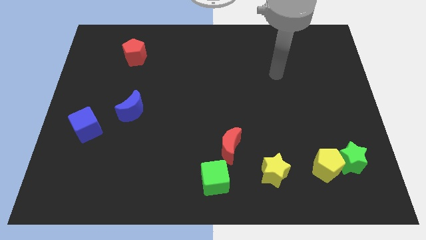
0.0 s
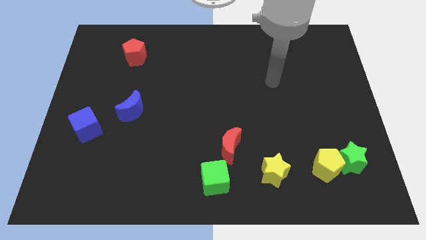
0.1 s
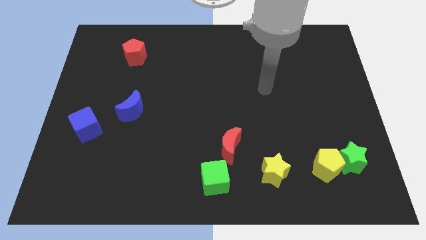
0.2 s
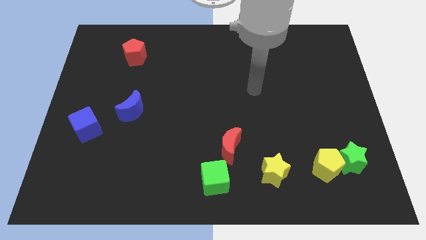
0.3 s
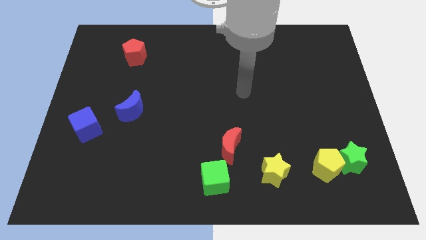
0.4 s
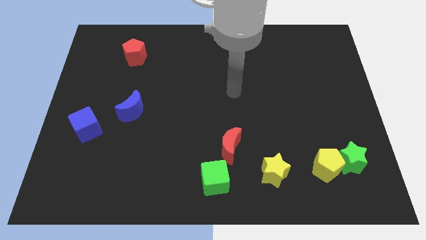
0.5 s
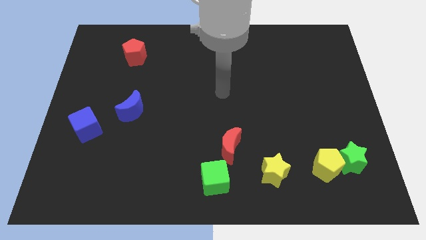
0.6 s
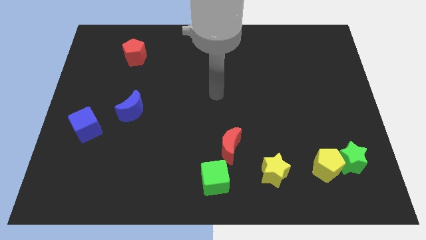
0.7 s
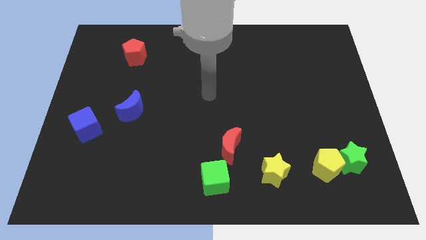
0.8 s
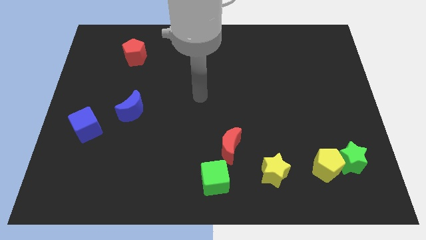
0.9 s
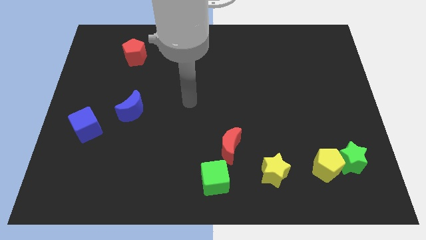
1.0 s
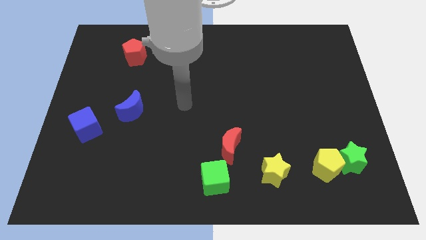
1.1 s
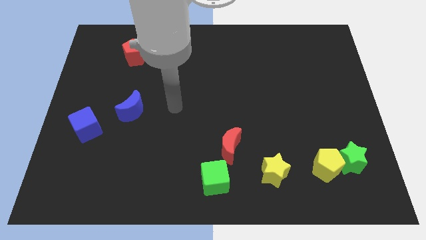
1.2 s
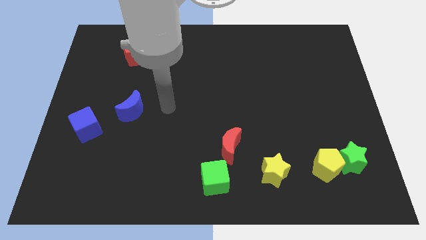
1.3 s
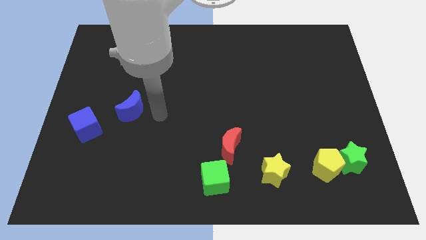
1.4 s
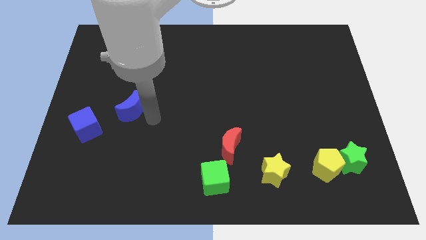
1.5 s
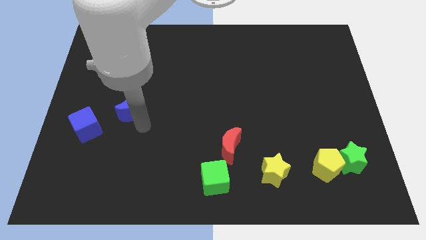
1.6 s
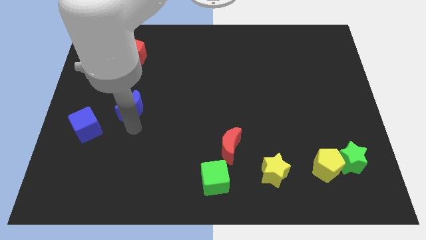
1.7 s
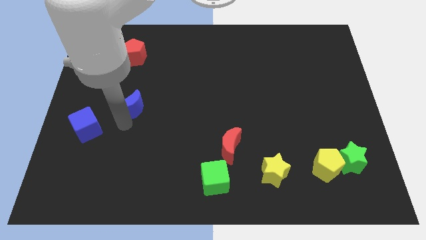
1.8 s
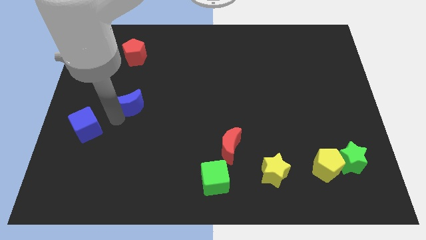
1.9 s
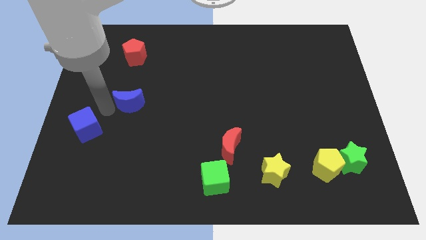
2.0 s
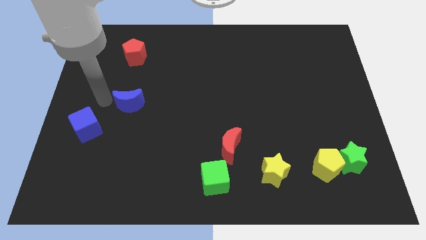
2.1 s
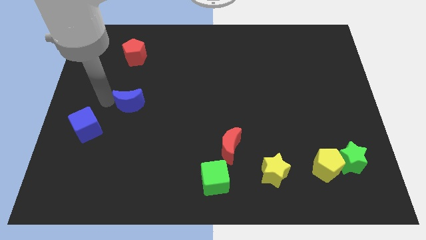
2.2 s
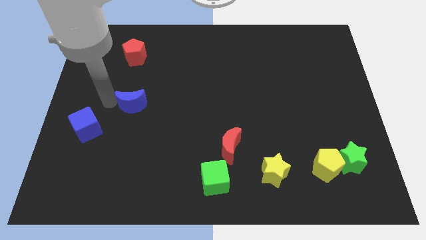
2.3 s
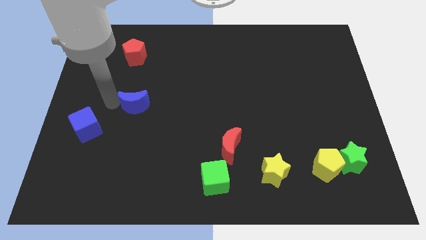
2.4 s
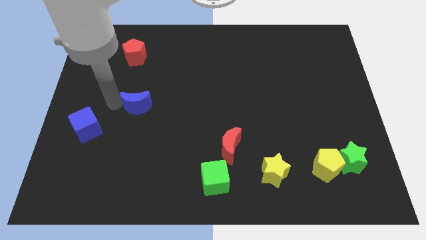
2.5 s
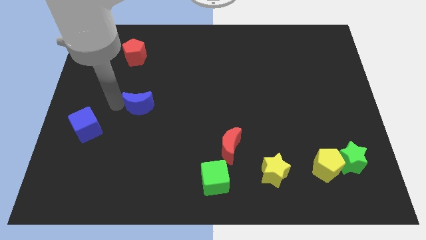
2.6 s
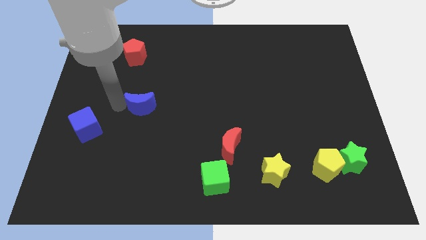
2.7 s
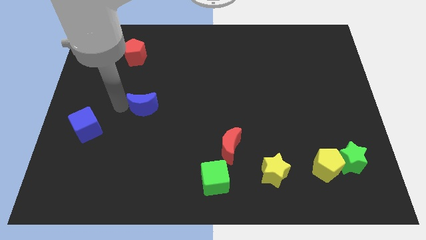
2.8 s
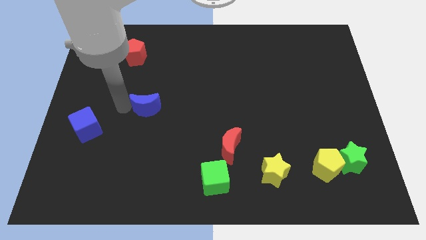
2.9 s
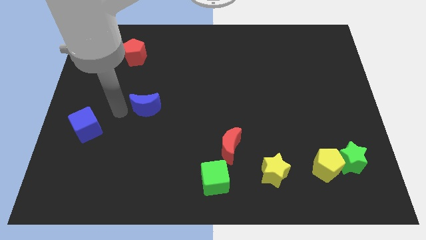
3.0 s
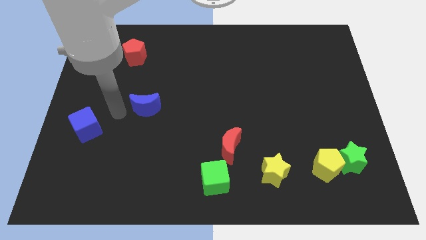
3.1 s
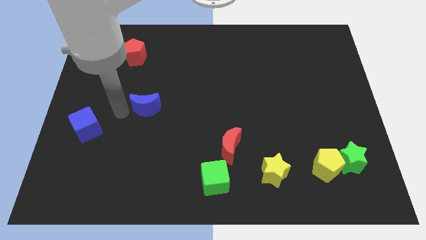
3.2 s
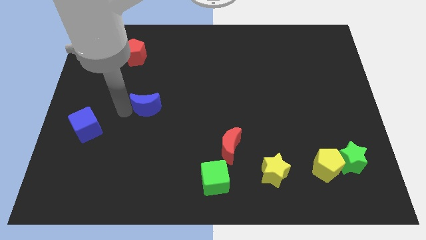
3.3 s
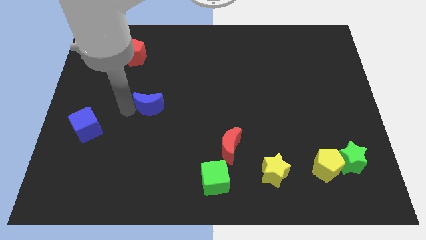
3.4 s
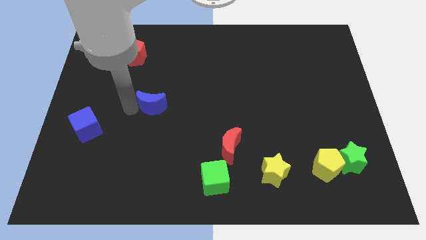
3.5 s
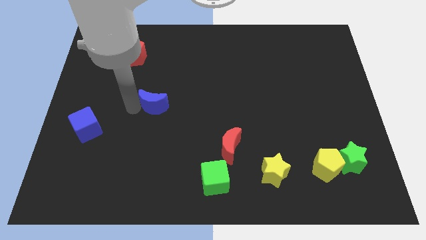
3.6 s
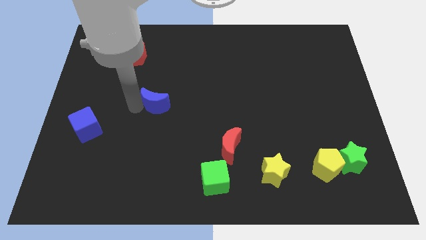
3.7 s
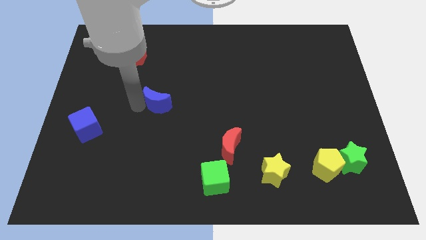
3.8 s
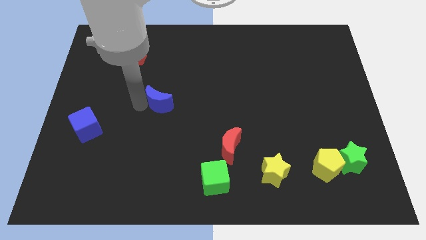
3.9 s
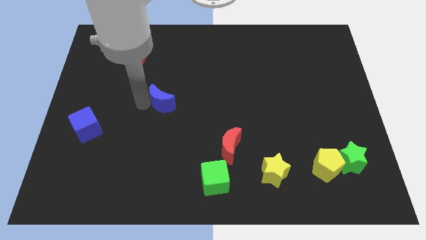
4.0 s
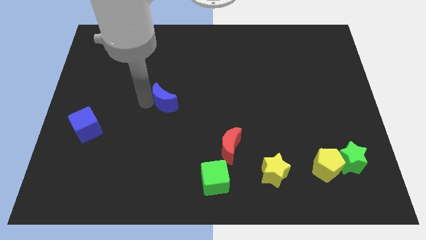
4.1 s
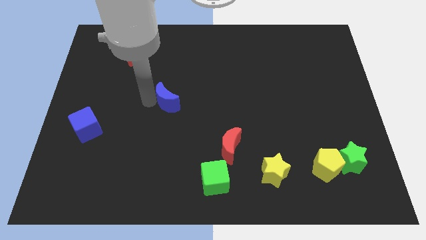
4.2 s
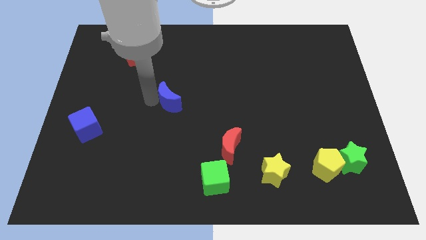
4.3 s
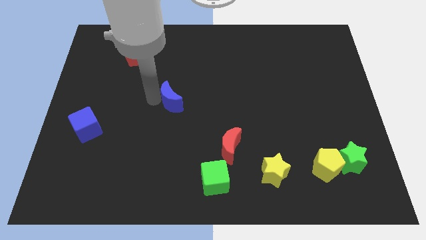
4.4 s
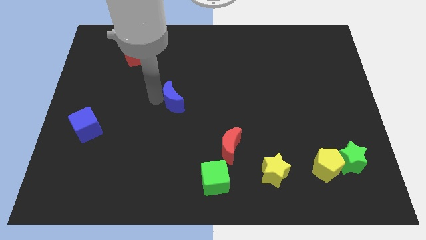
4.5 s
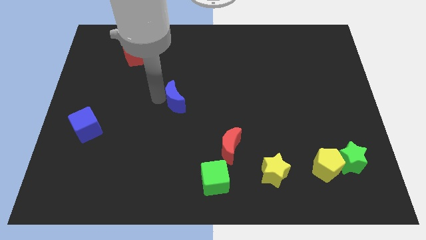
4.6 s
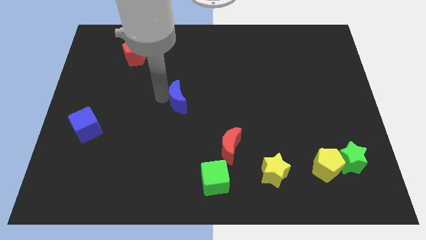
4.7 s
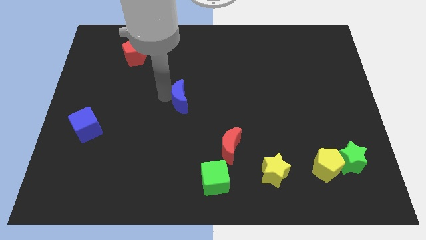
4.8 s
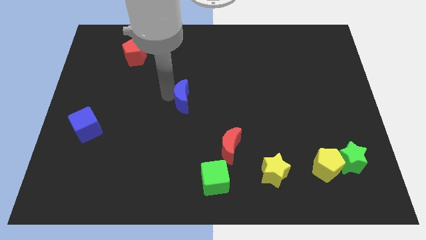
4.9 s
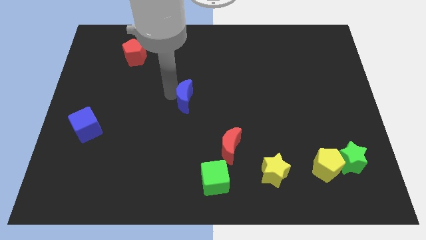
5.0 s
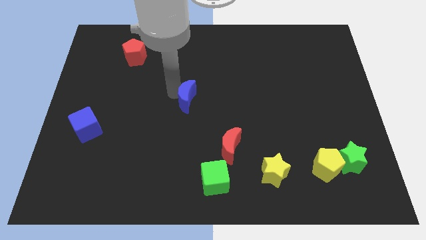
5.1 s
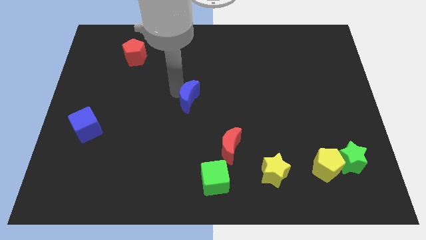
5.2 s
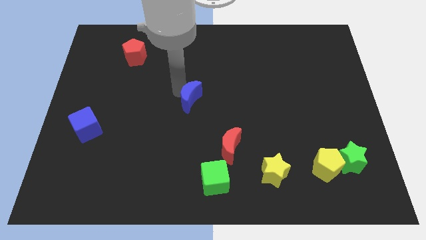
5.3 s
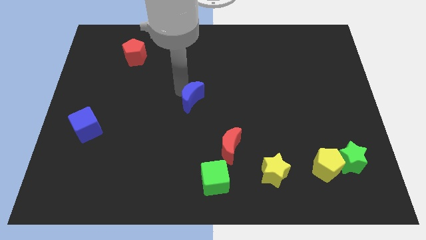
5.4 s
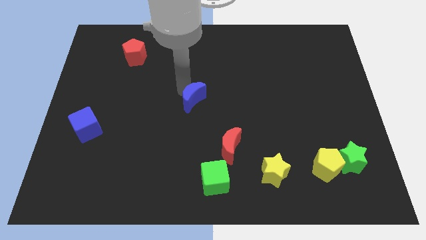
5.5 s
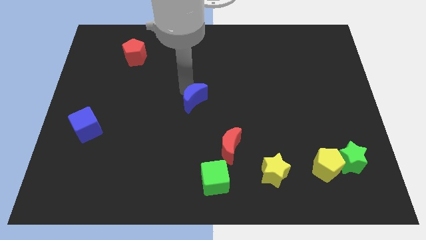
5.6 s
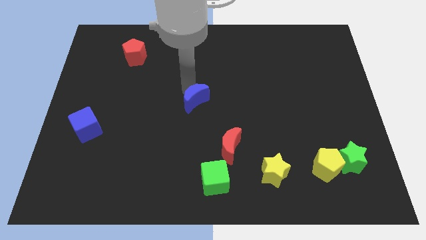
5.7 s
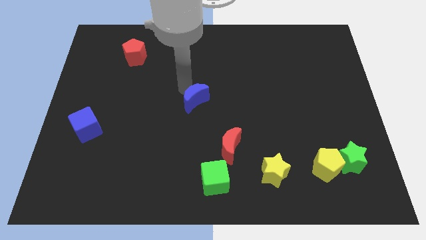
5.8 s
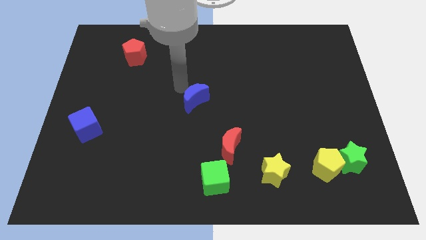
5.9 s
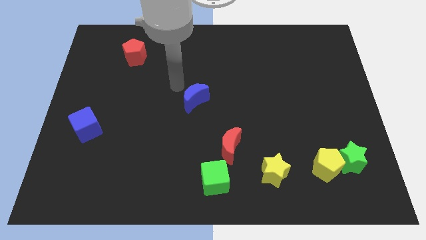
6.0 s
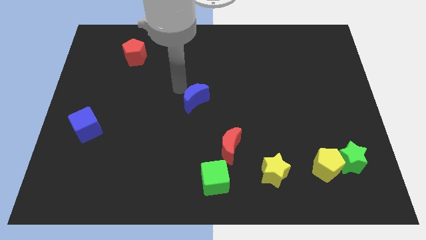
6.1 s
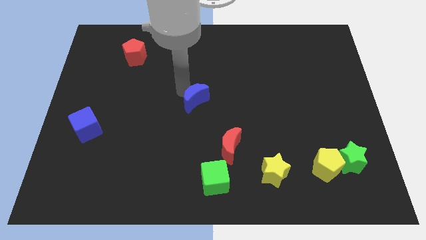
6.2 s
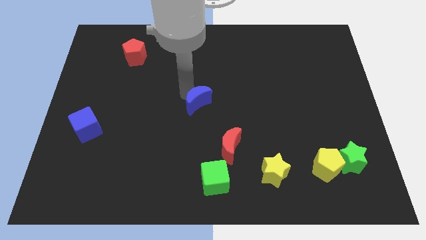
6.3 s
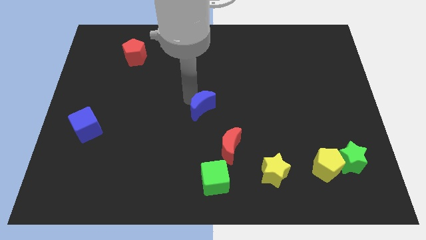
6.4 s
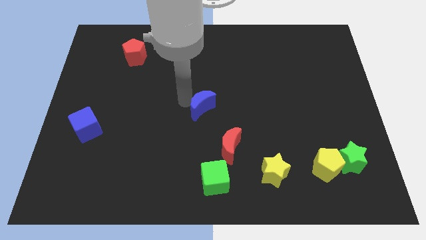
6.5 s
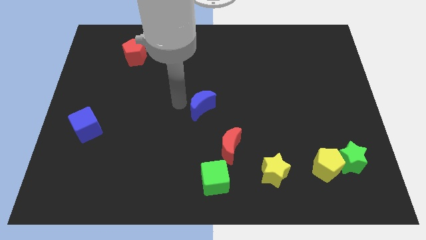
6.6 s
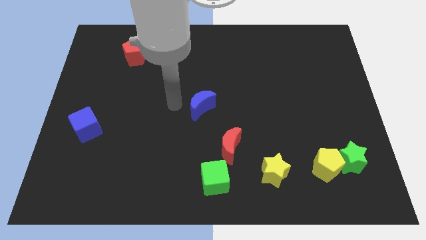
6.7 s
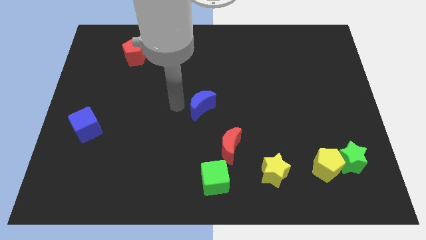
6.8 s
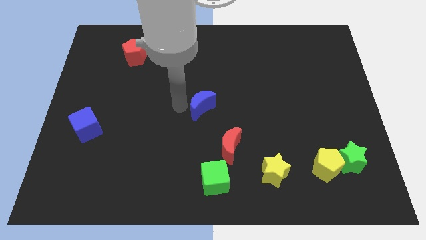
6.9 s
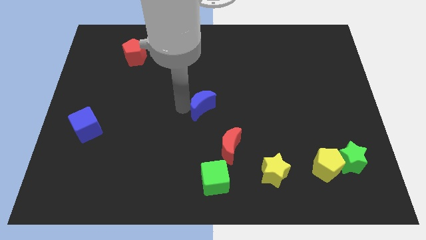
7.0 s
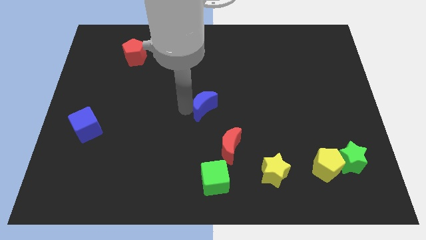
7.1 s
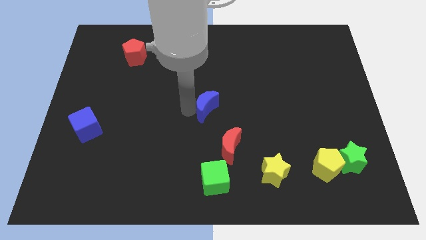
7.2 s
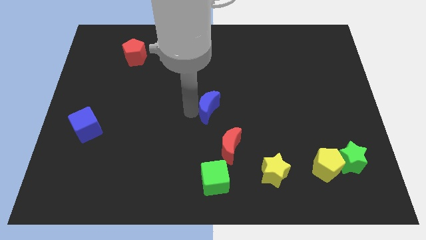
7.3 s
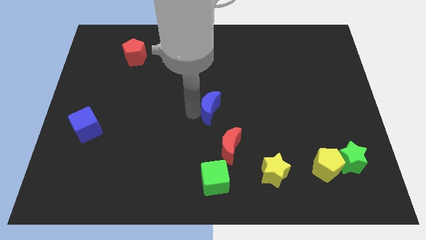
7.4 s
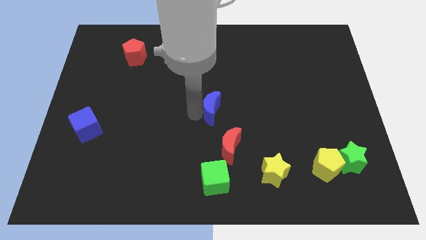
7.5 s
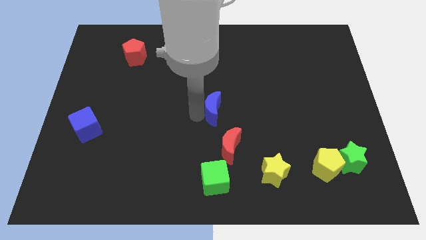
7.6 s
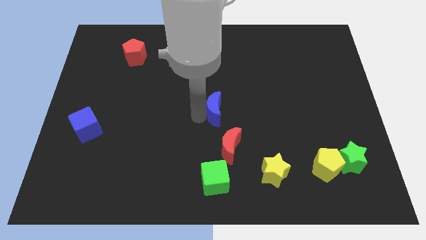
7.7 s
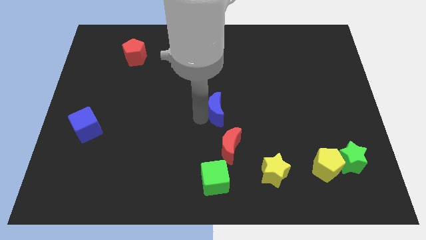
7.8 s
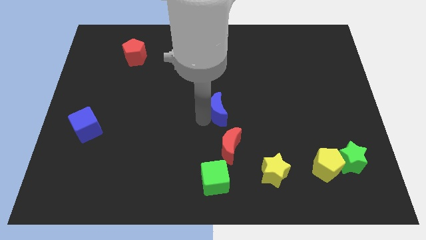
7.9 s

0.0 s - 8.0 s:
move the blue moon right
